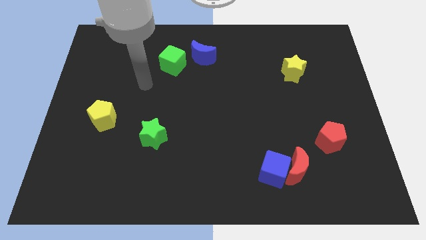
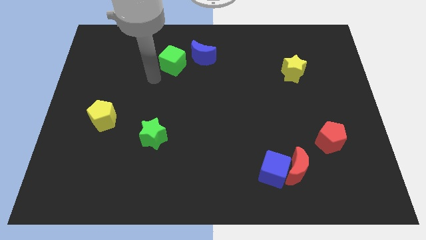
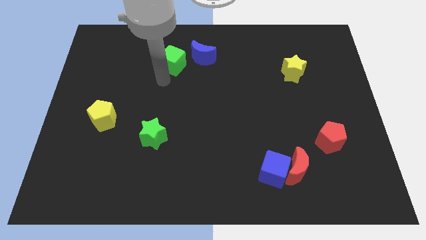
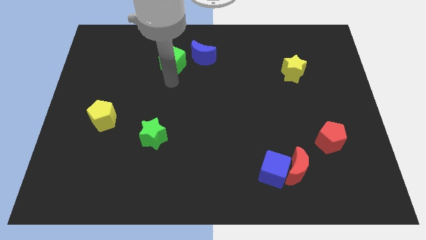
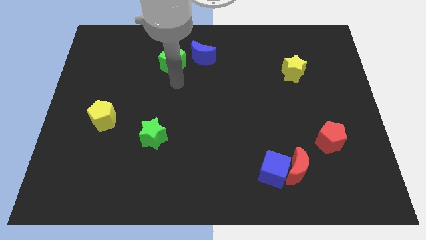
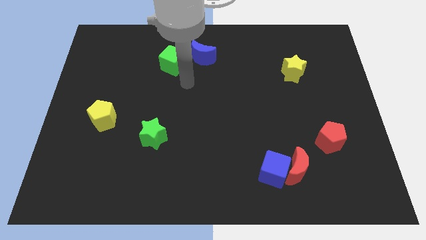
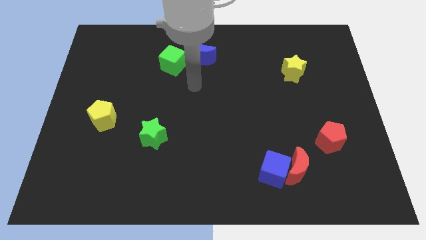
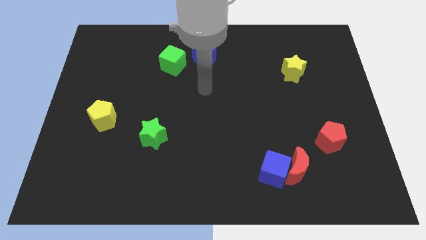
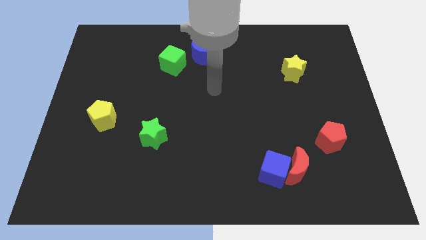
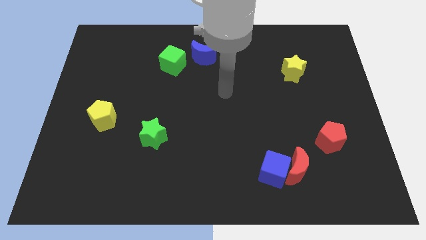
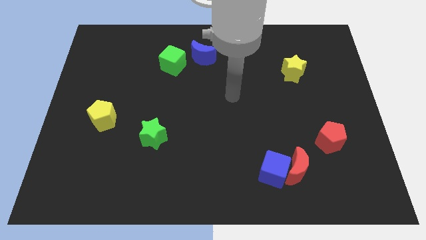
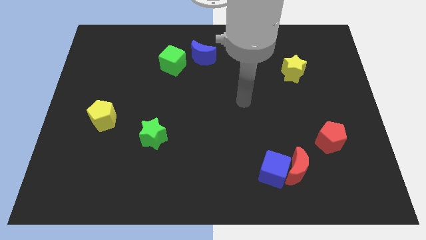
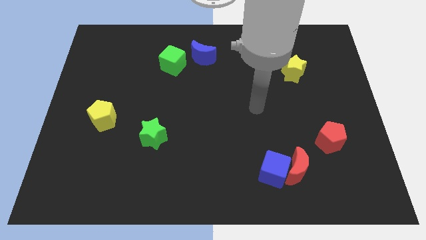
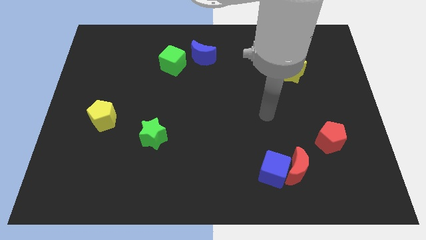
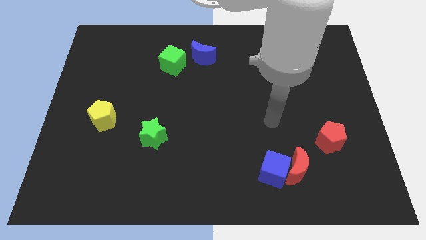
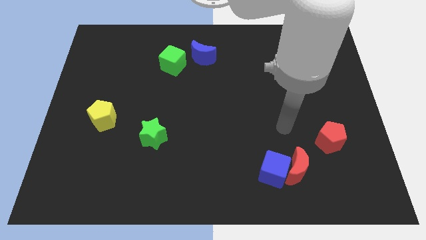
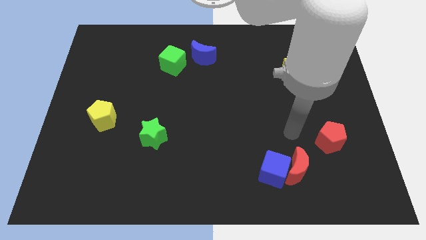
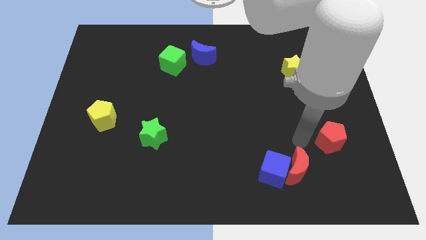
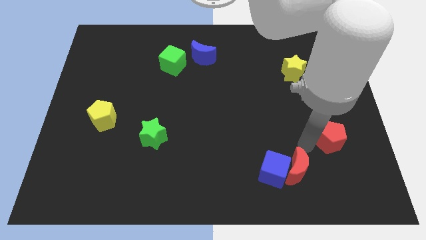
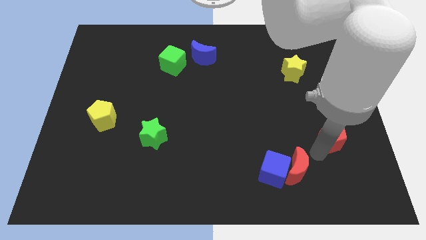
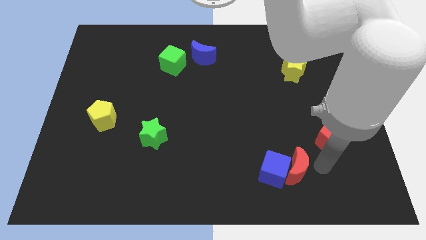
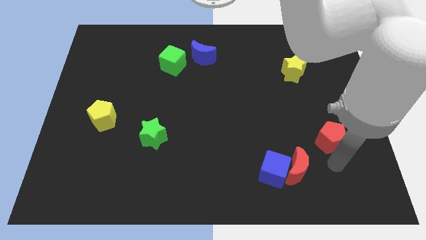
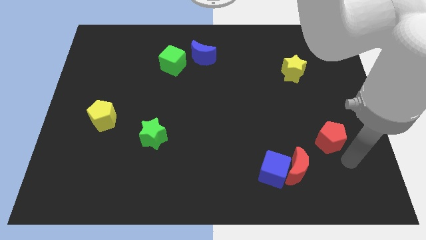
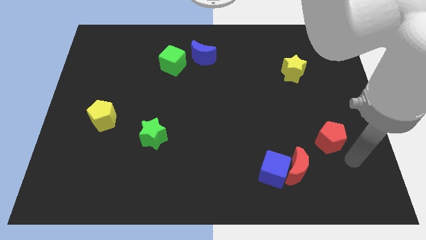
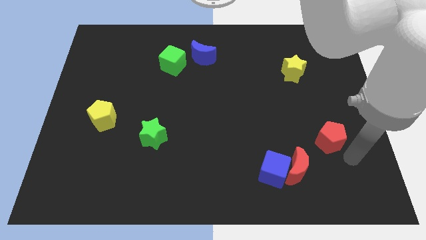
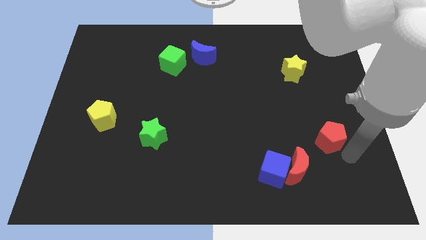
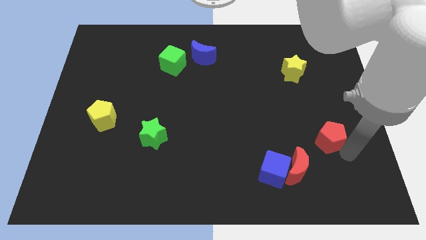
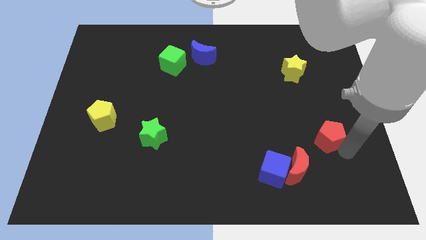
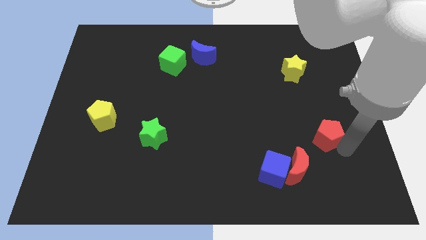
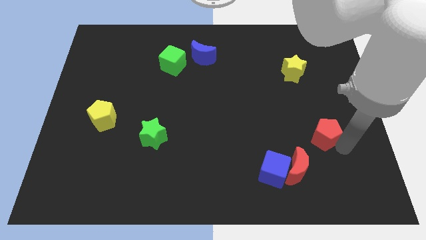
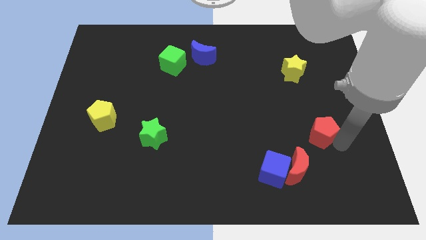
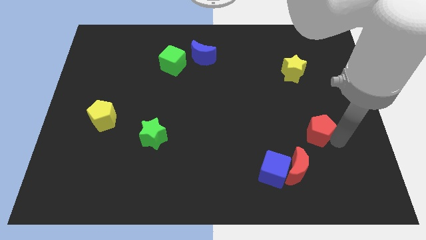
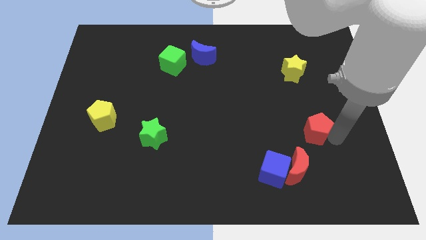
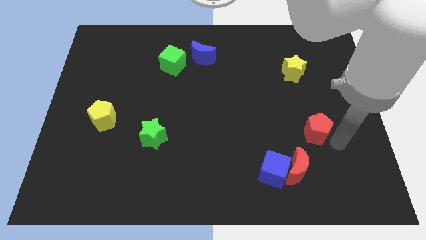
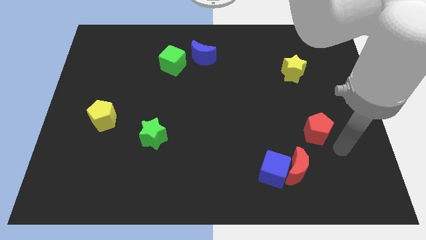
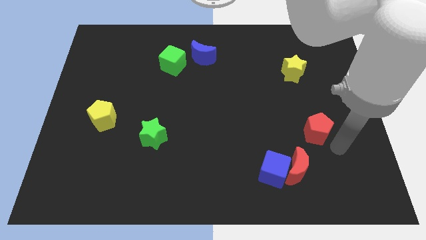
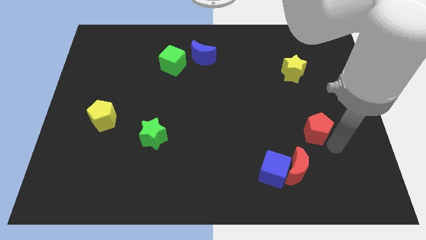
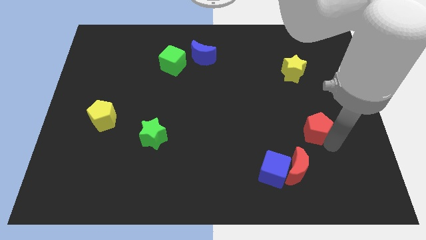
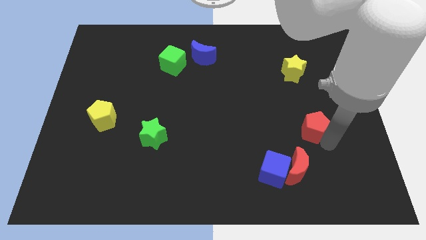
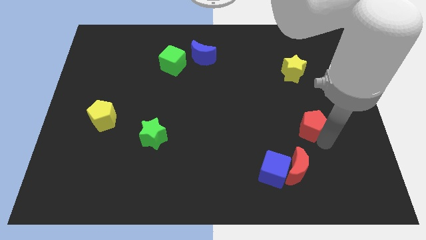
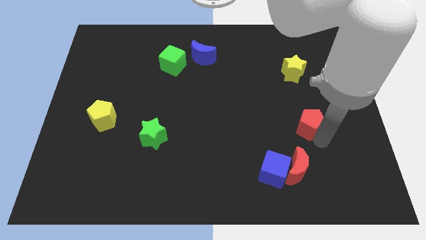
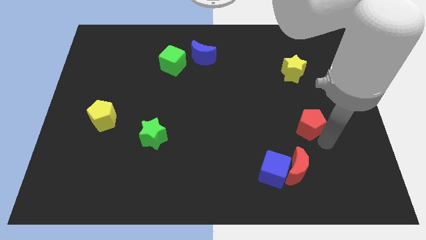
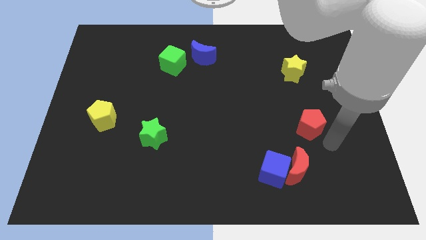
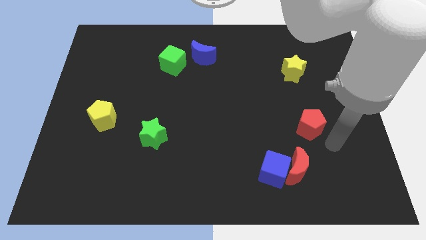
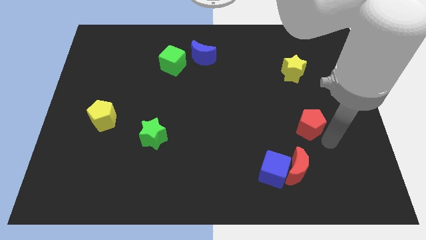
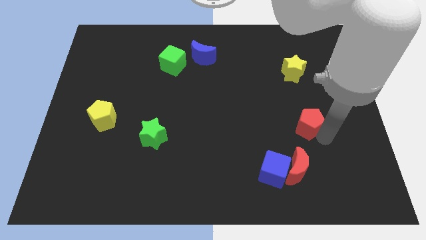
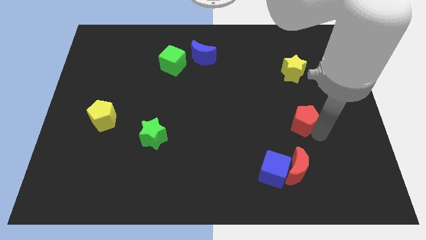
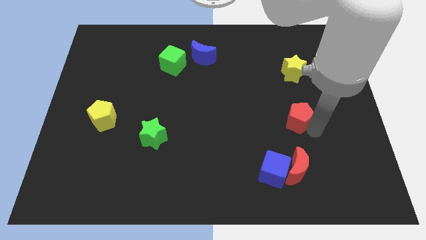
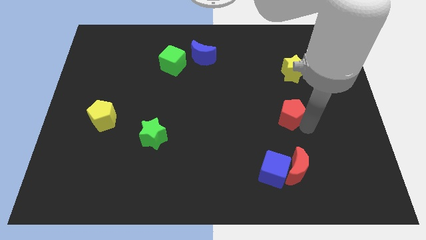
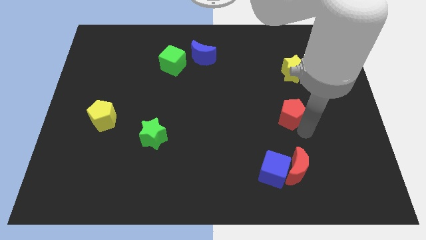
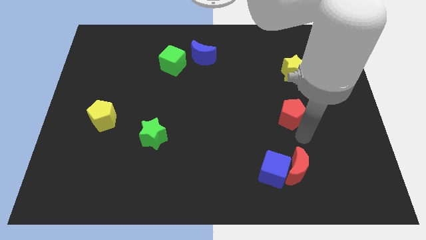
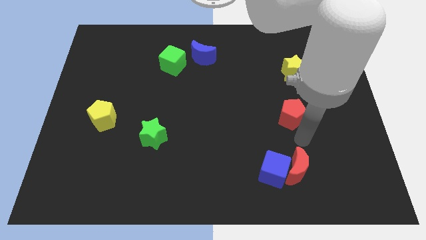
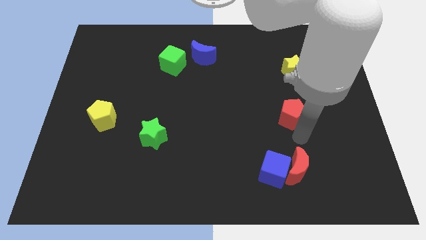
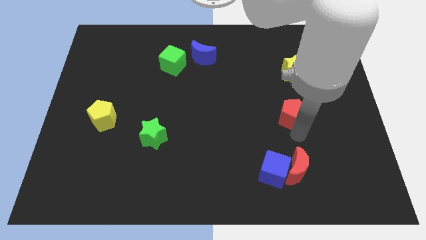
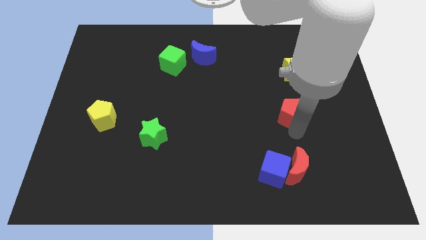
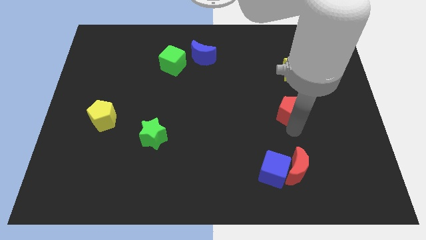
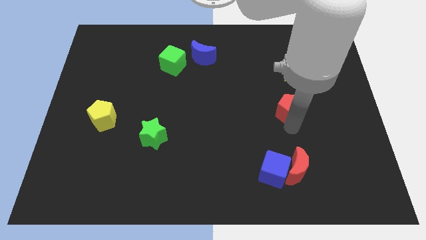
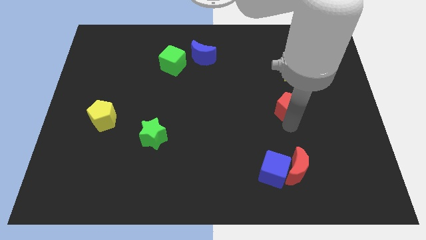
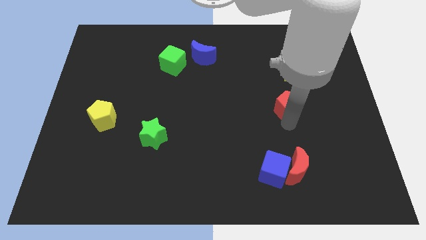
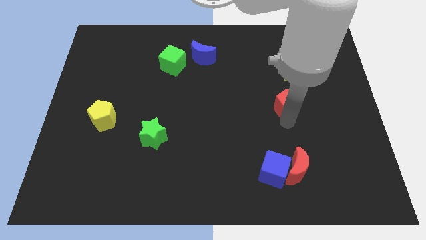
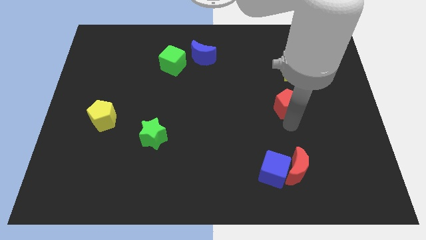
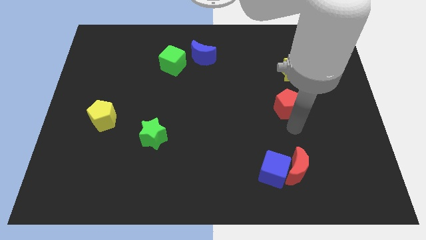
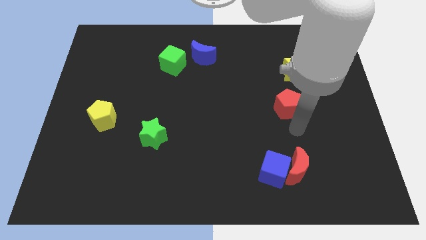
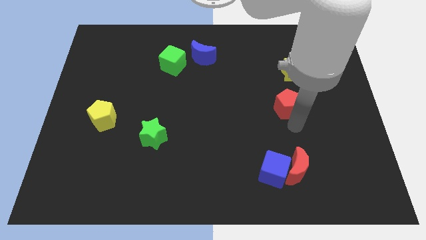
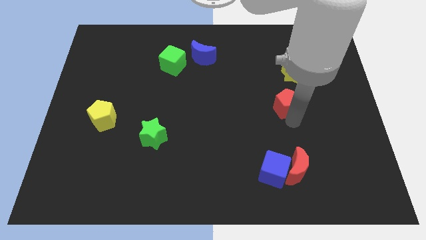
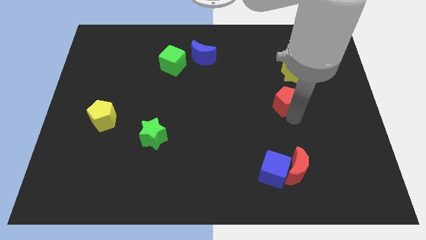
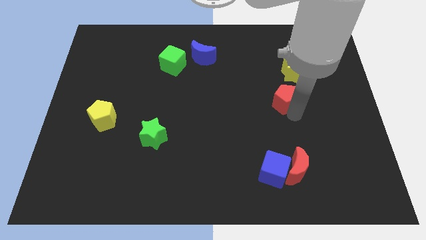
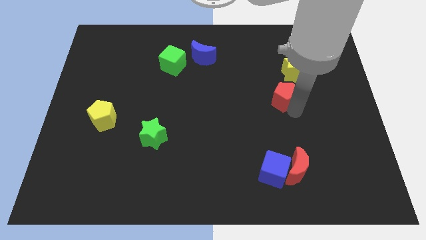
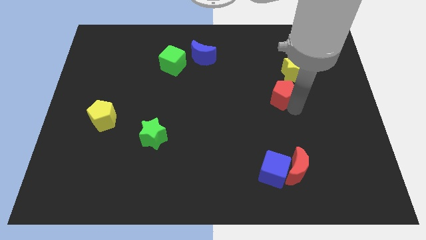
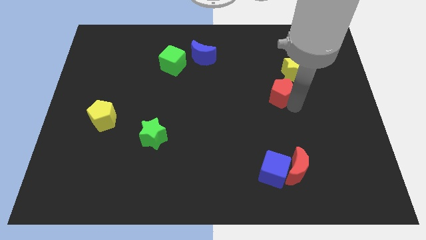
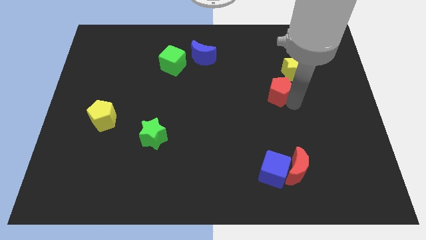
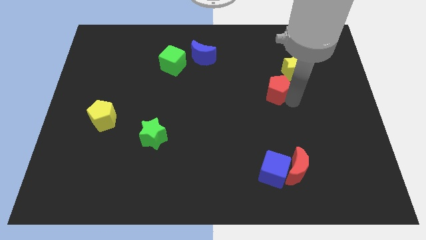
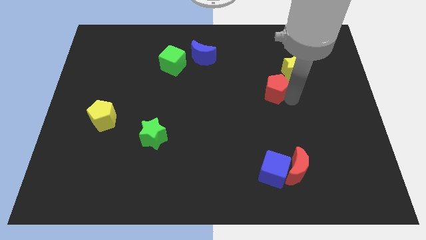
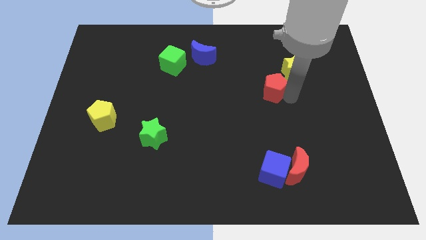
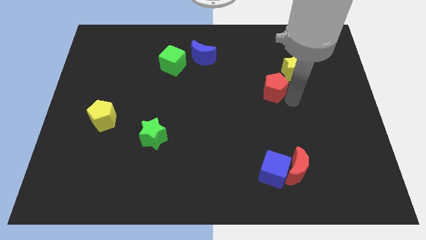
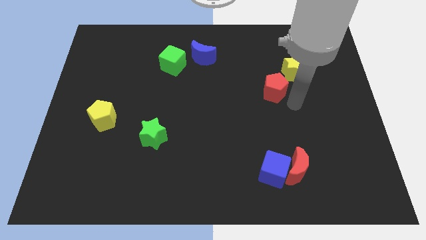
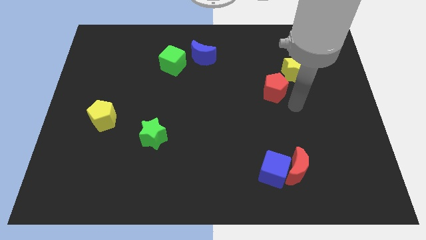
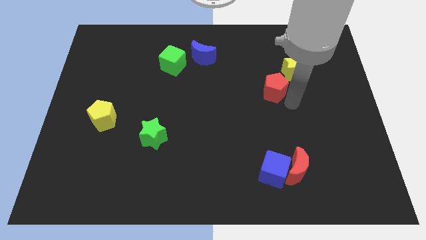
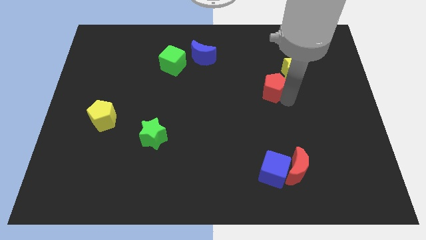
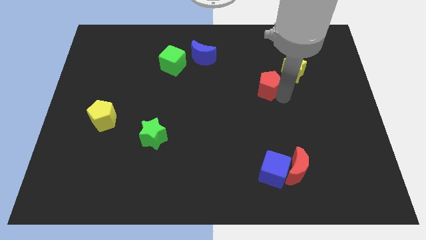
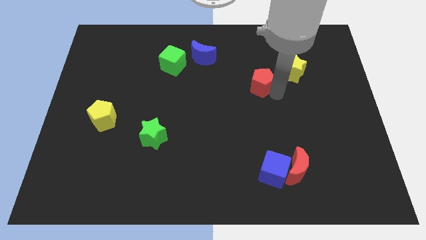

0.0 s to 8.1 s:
put the red pentagon left of the yellow star
